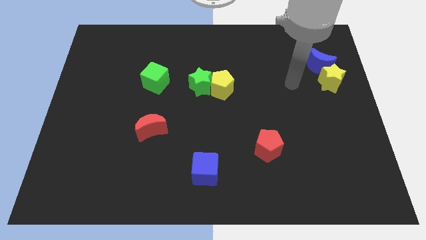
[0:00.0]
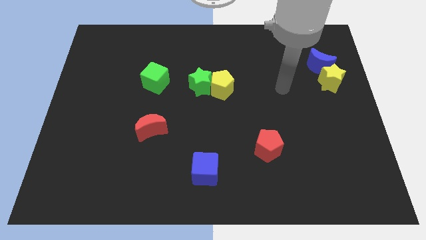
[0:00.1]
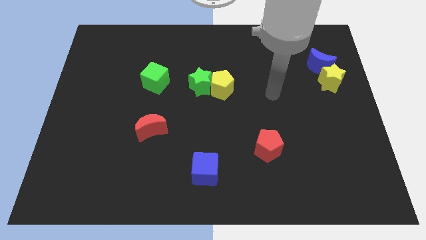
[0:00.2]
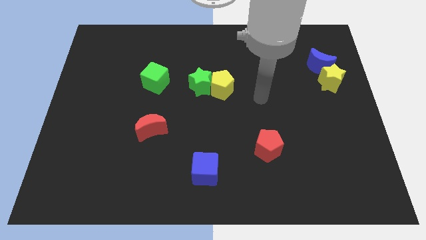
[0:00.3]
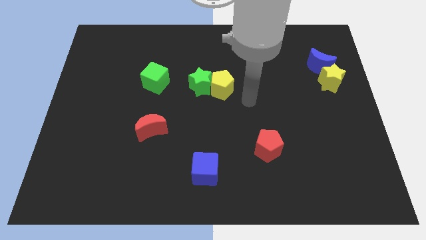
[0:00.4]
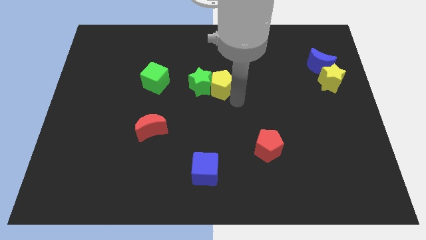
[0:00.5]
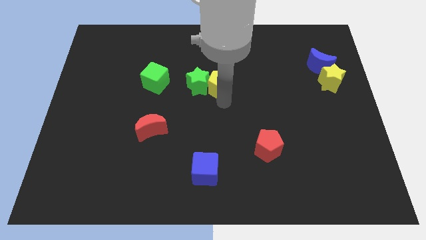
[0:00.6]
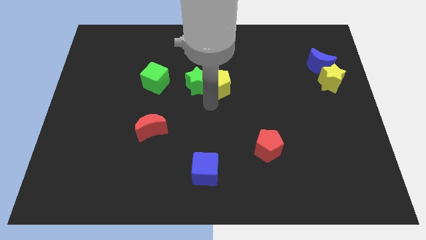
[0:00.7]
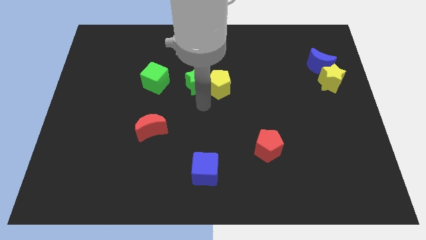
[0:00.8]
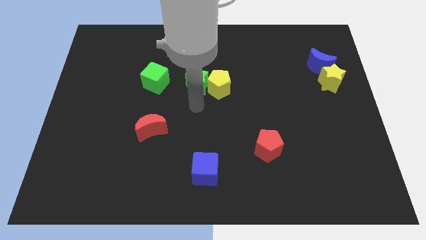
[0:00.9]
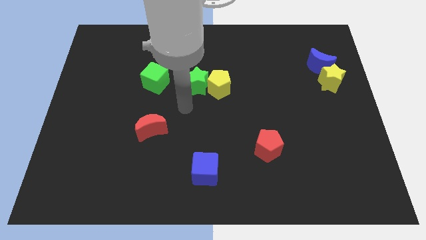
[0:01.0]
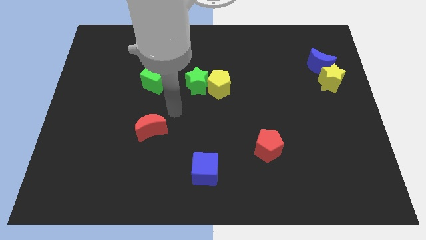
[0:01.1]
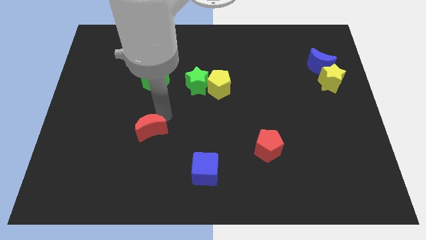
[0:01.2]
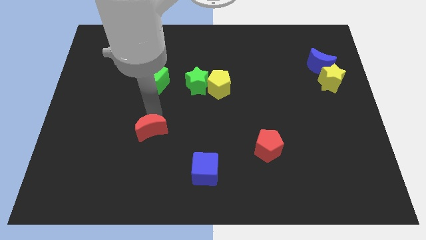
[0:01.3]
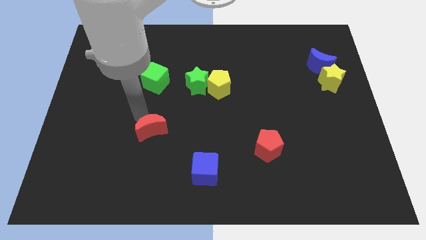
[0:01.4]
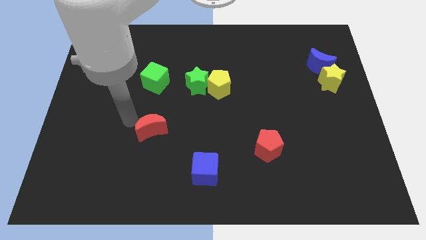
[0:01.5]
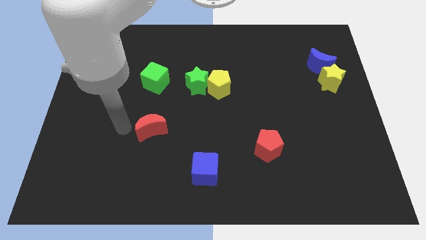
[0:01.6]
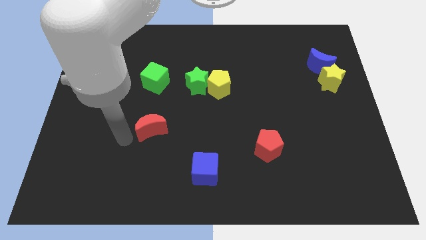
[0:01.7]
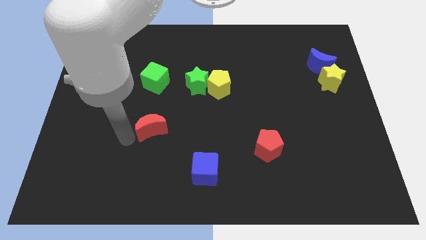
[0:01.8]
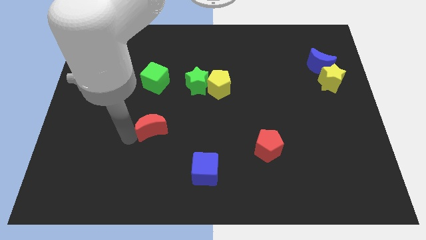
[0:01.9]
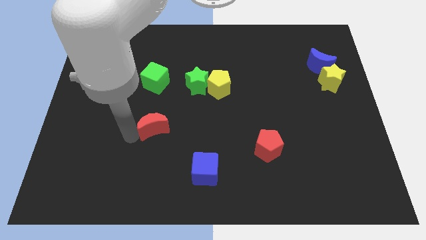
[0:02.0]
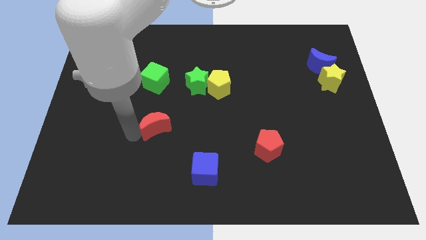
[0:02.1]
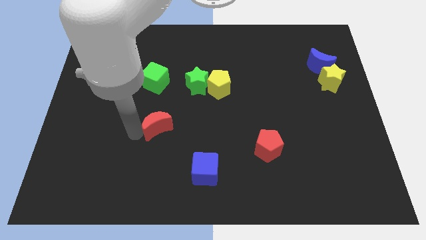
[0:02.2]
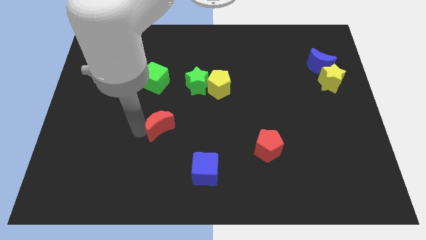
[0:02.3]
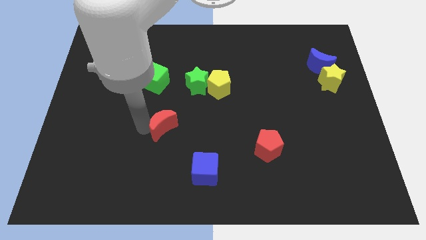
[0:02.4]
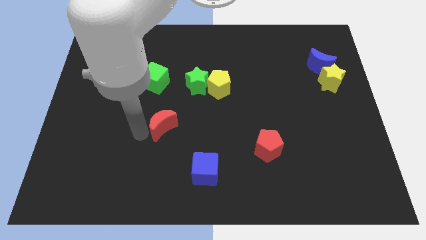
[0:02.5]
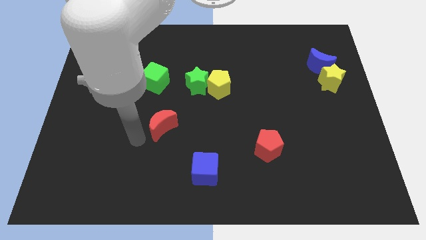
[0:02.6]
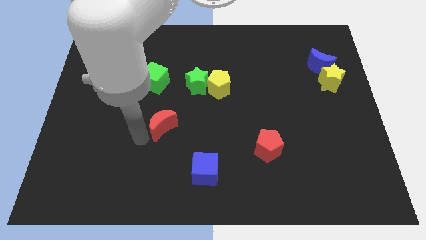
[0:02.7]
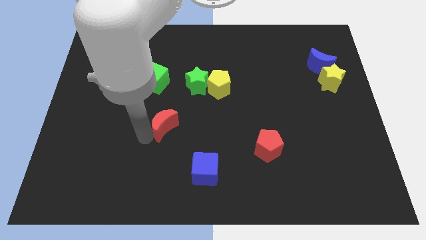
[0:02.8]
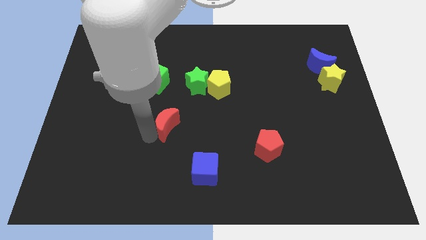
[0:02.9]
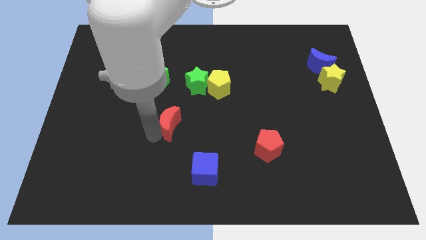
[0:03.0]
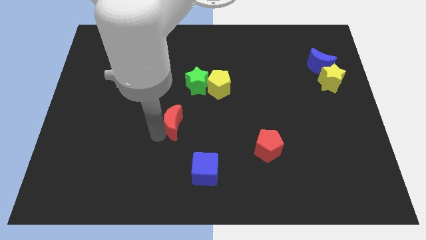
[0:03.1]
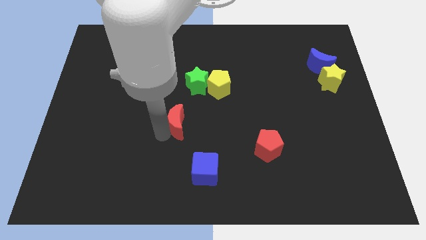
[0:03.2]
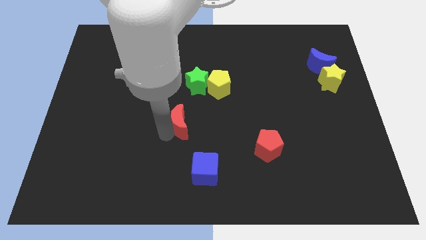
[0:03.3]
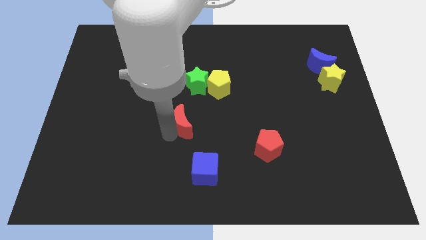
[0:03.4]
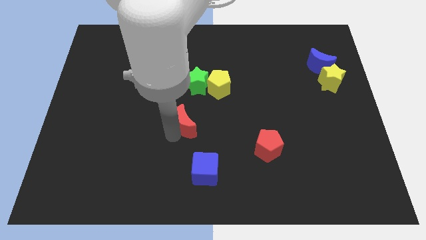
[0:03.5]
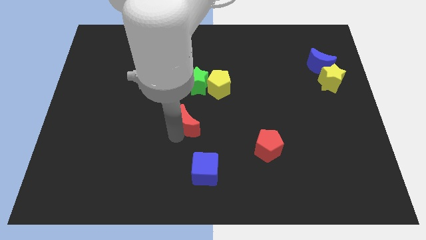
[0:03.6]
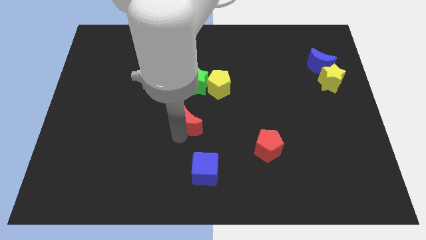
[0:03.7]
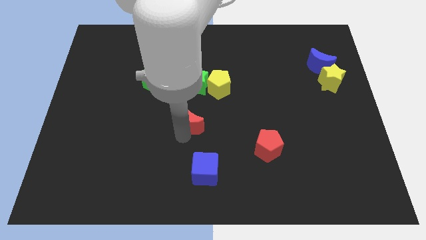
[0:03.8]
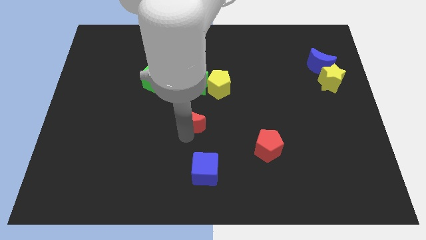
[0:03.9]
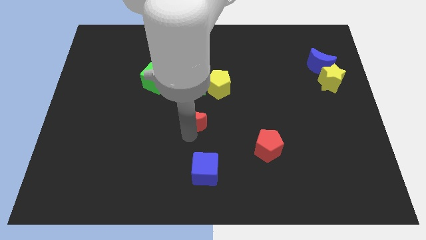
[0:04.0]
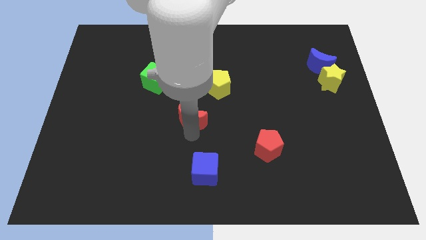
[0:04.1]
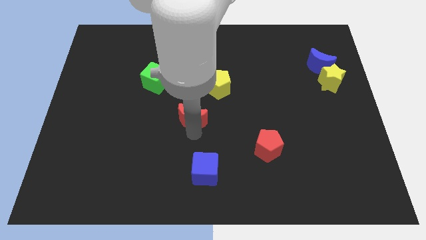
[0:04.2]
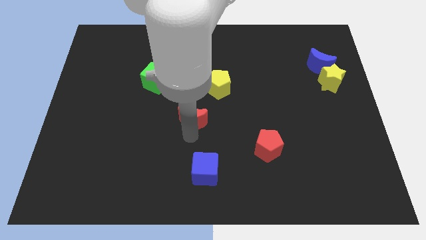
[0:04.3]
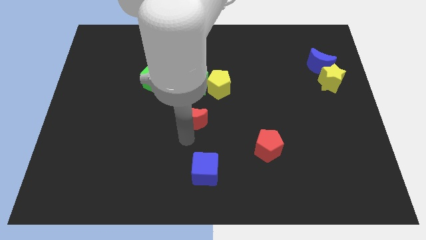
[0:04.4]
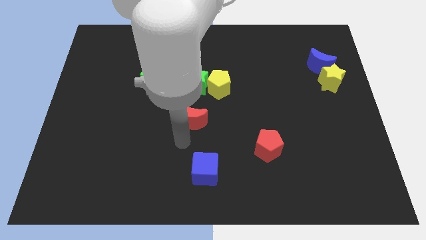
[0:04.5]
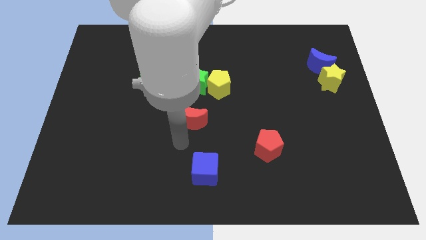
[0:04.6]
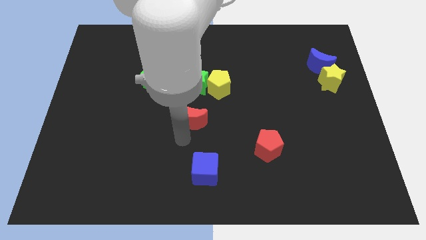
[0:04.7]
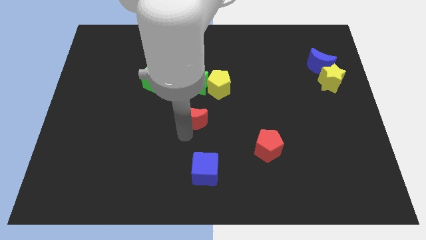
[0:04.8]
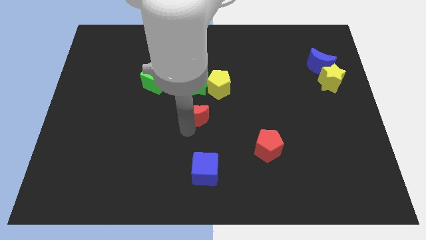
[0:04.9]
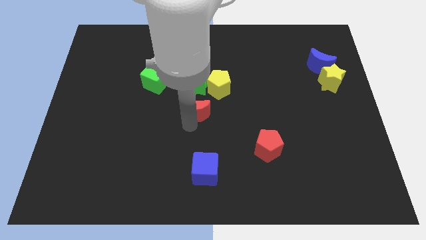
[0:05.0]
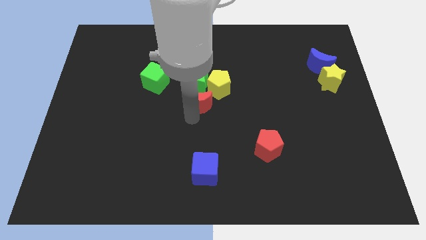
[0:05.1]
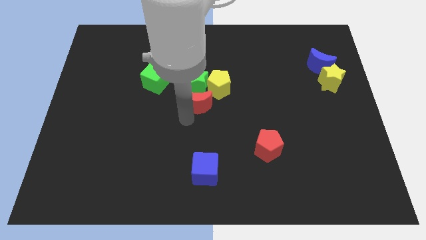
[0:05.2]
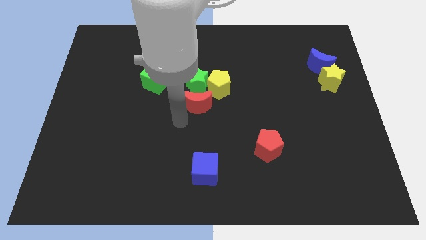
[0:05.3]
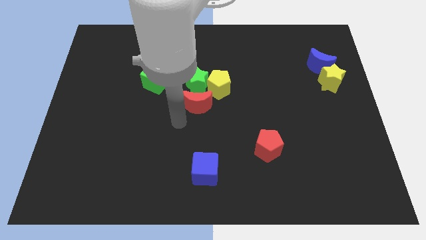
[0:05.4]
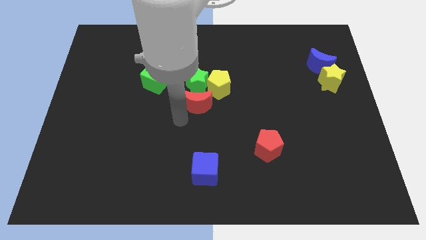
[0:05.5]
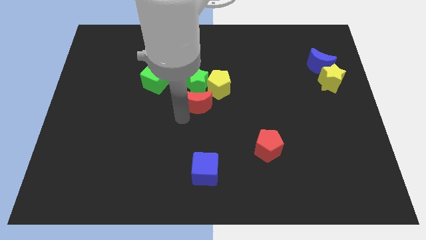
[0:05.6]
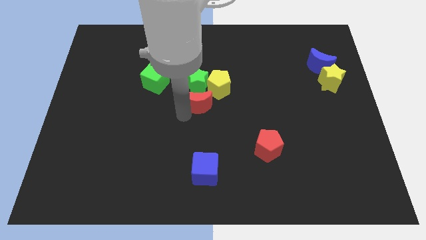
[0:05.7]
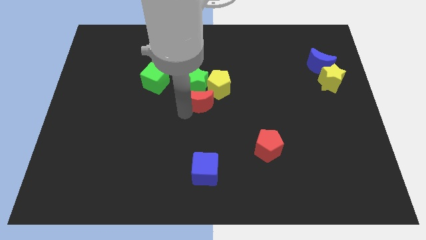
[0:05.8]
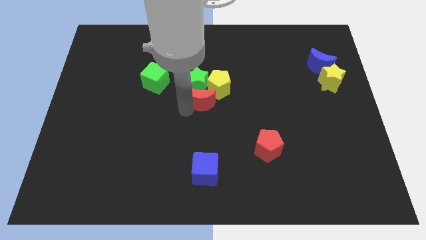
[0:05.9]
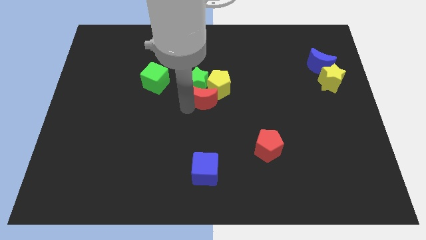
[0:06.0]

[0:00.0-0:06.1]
put the red moon towards the yellow pentagon

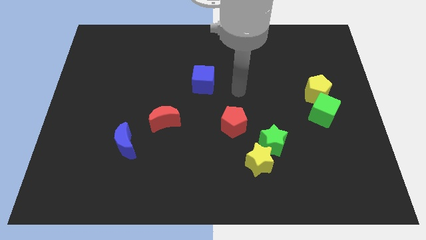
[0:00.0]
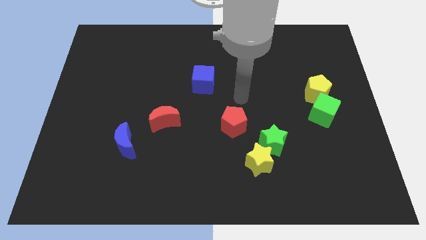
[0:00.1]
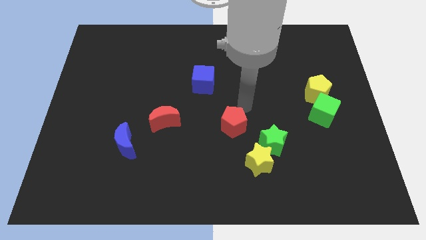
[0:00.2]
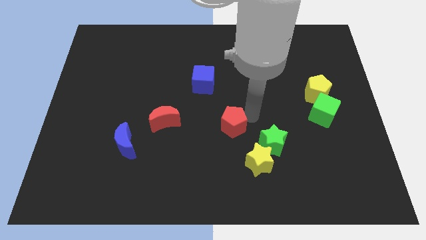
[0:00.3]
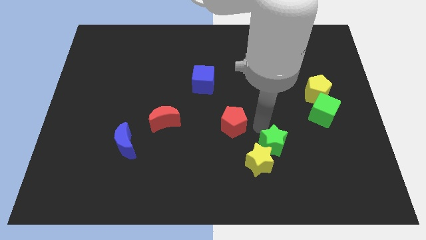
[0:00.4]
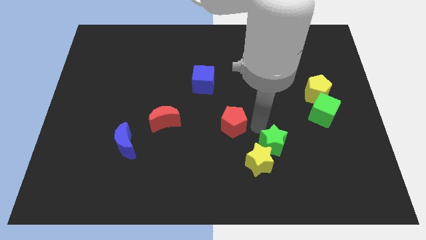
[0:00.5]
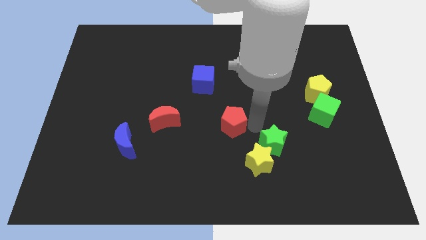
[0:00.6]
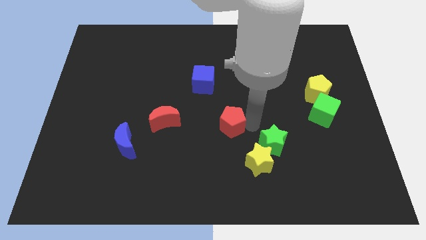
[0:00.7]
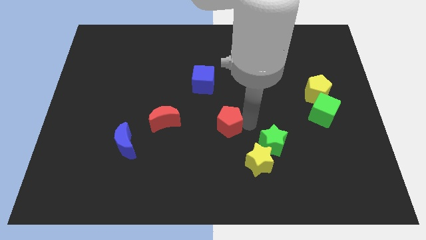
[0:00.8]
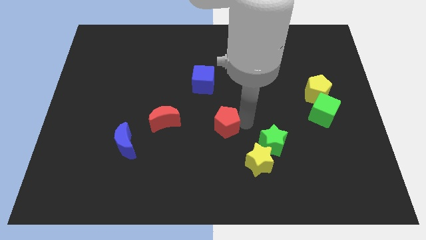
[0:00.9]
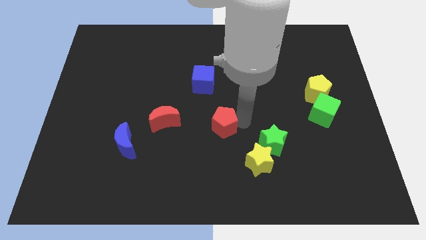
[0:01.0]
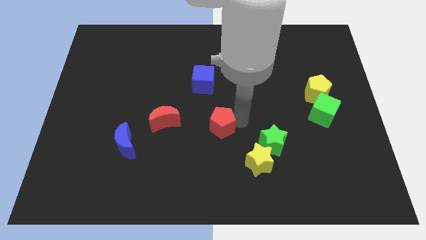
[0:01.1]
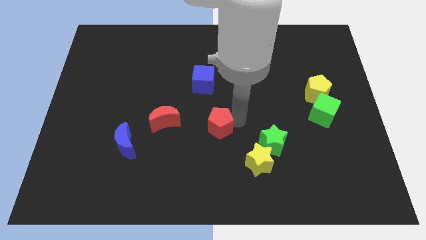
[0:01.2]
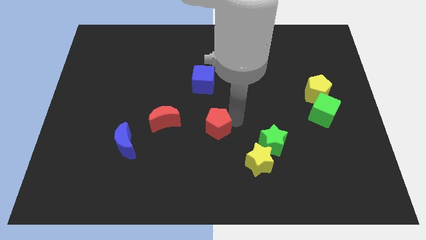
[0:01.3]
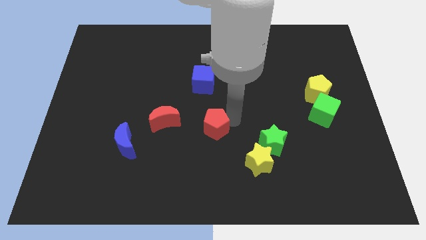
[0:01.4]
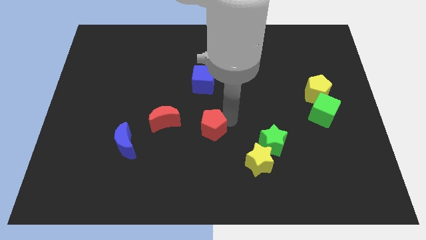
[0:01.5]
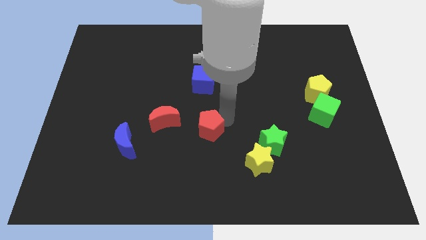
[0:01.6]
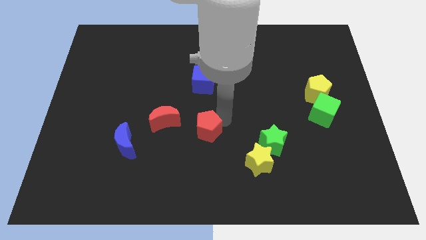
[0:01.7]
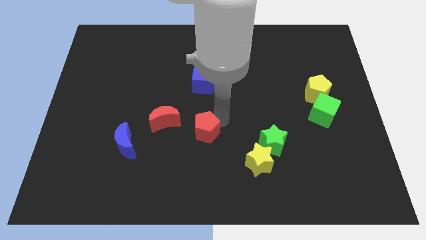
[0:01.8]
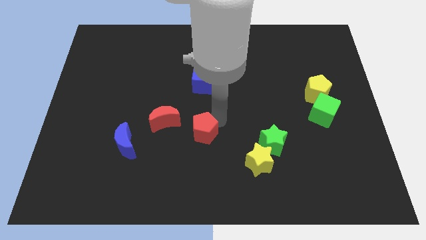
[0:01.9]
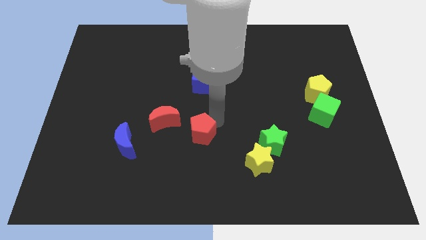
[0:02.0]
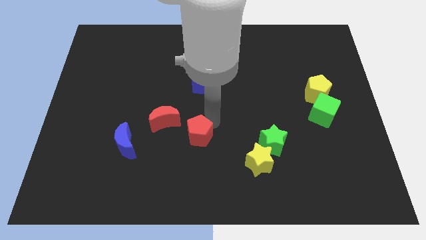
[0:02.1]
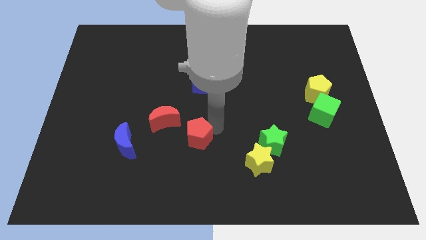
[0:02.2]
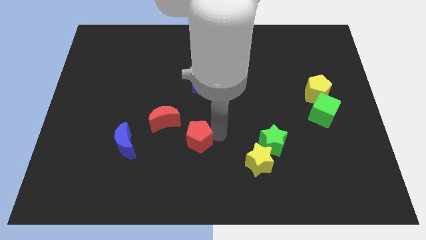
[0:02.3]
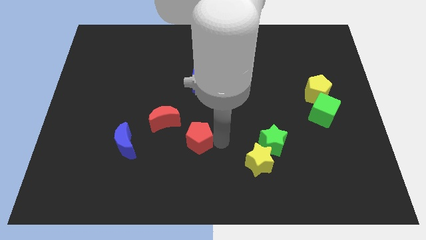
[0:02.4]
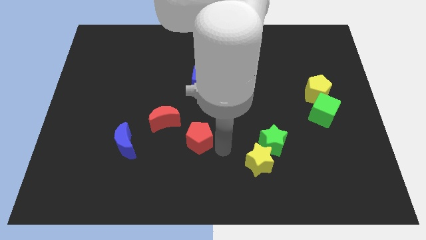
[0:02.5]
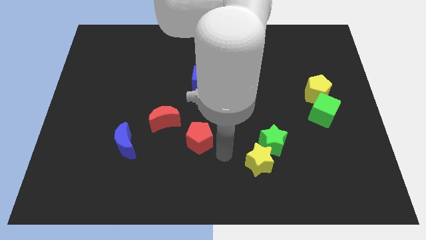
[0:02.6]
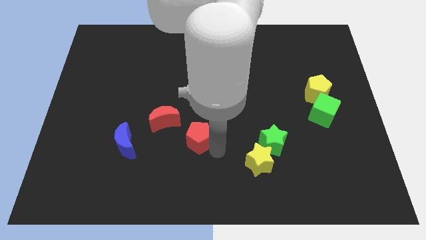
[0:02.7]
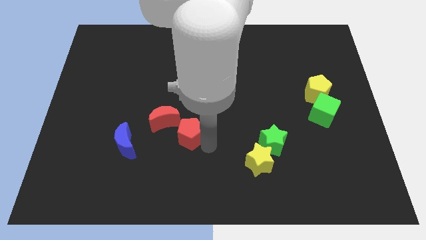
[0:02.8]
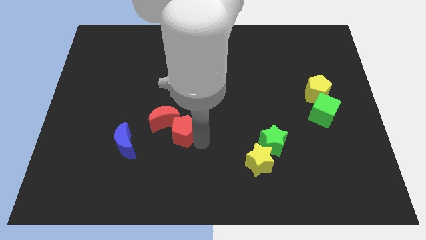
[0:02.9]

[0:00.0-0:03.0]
slide the red pentagon close to the red moon
